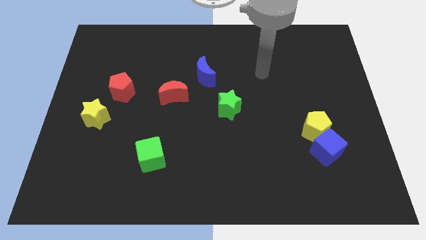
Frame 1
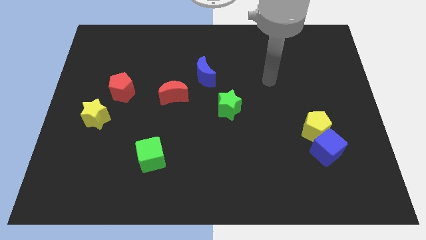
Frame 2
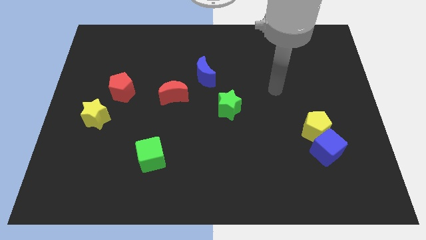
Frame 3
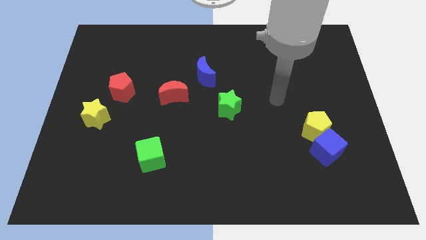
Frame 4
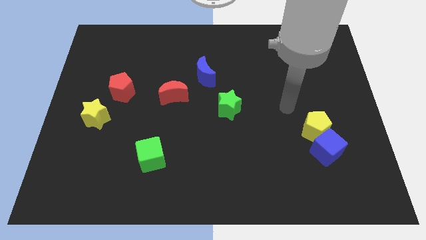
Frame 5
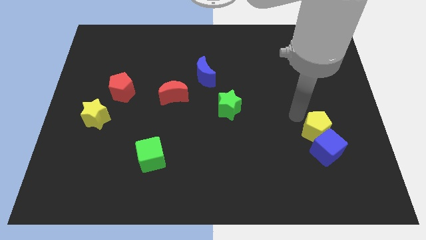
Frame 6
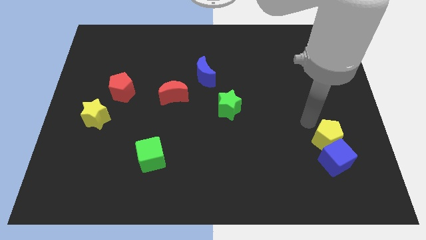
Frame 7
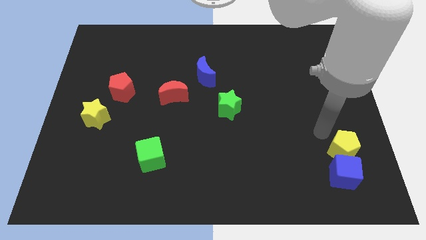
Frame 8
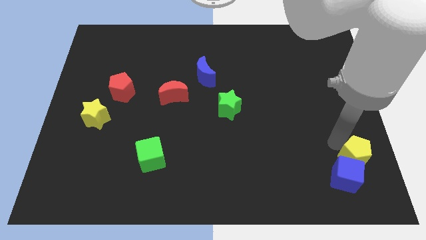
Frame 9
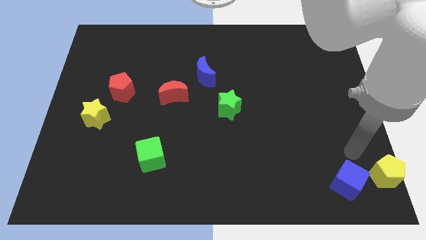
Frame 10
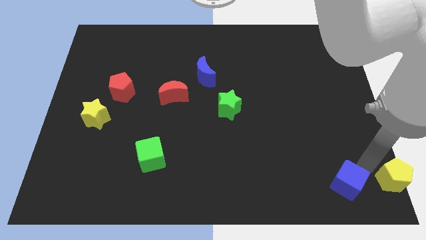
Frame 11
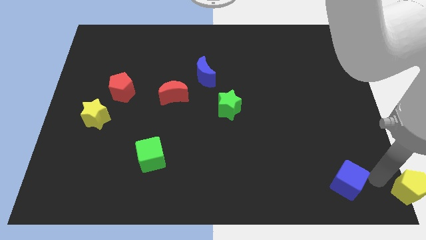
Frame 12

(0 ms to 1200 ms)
separate the blue cube from the yellow pentagon

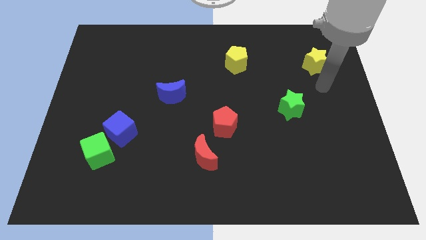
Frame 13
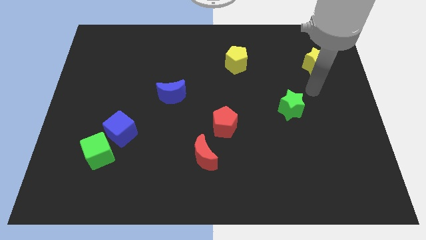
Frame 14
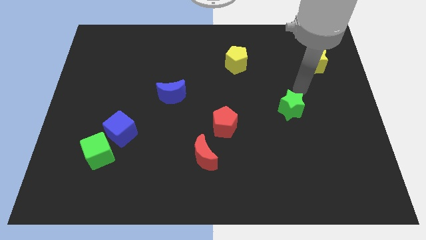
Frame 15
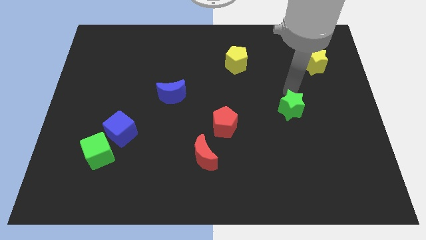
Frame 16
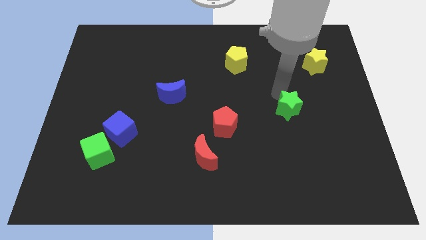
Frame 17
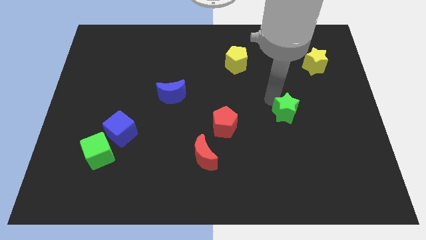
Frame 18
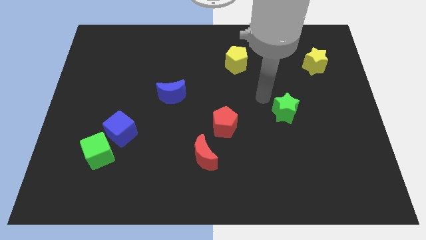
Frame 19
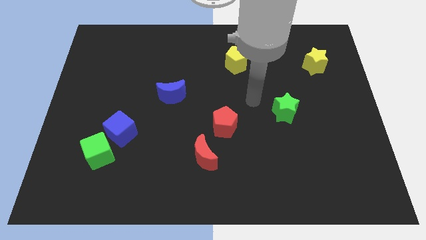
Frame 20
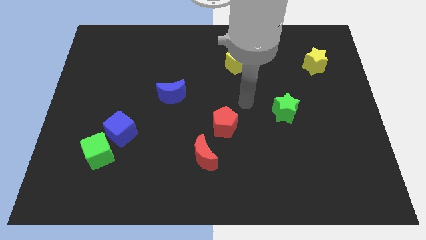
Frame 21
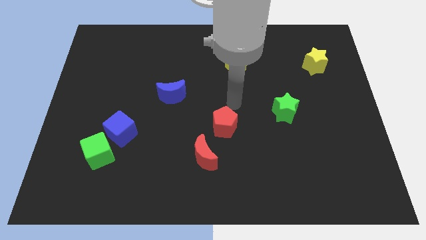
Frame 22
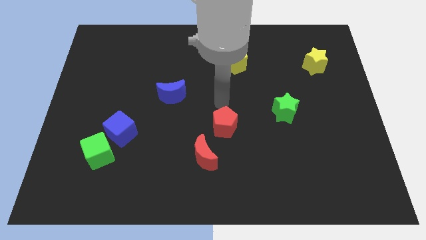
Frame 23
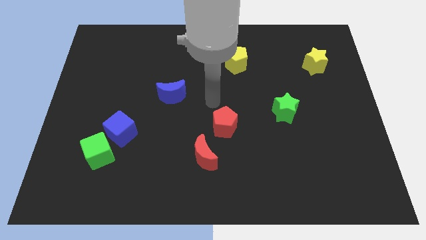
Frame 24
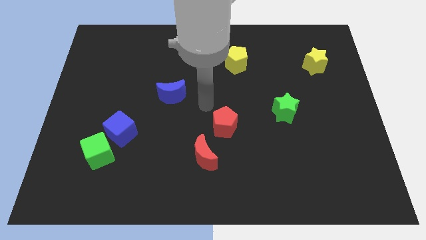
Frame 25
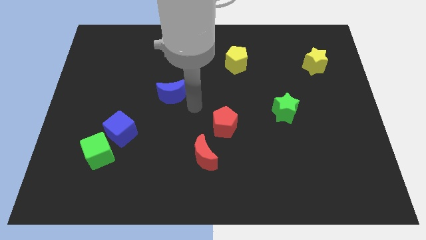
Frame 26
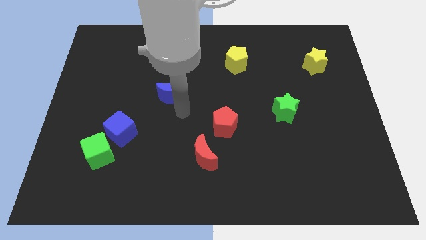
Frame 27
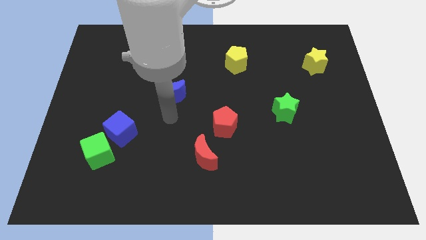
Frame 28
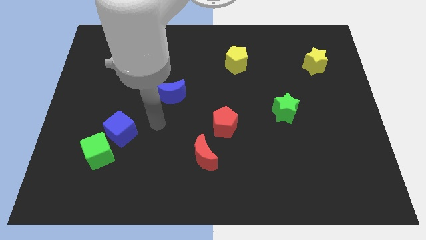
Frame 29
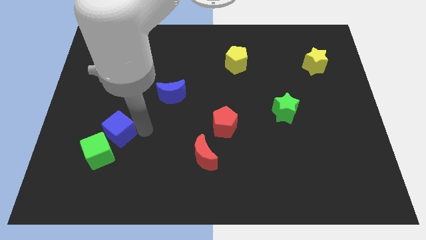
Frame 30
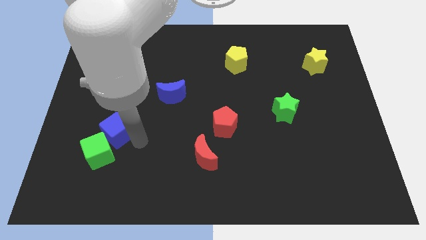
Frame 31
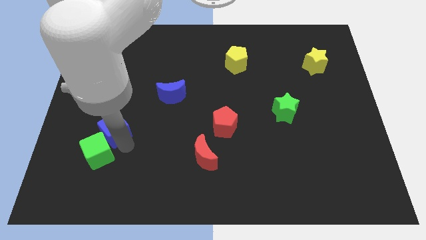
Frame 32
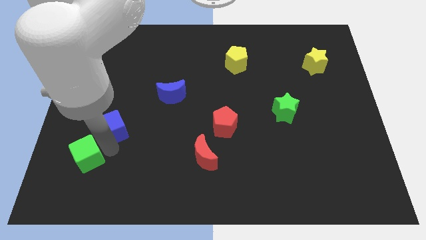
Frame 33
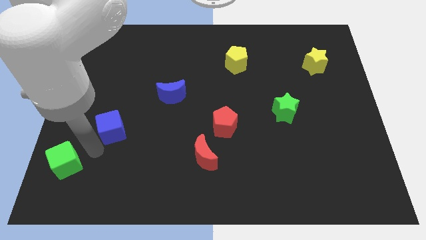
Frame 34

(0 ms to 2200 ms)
separate the blue cube from the green cube

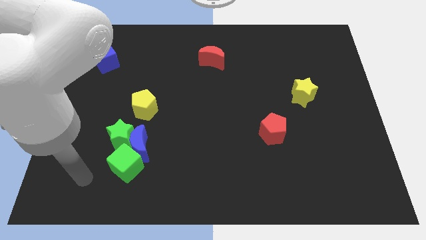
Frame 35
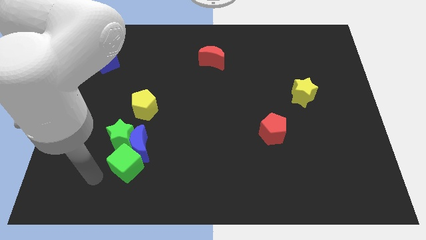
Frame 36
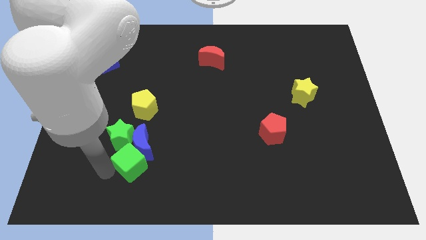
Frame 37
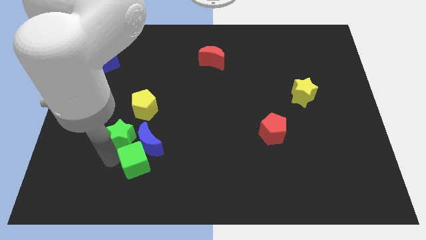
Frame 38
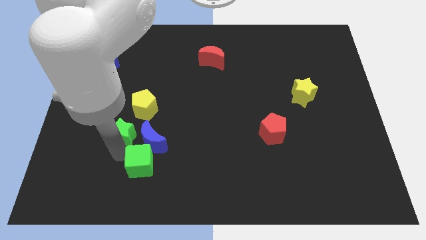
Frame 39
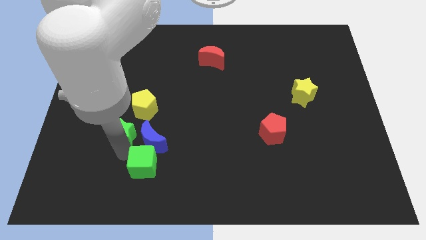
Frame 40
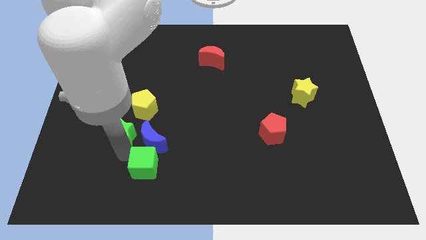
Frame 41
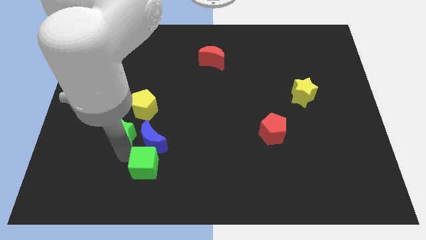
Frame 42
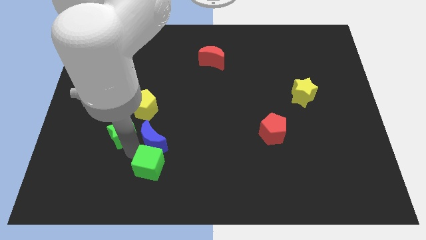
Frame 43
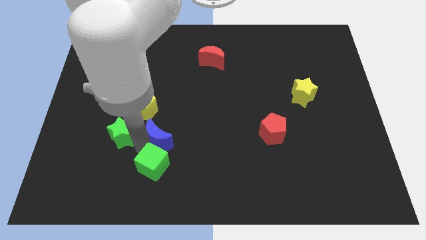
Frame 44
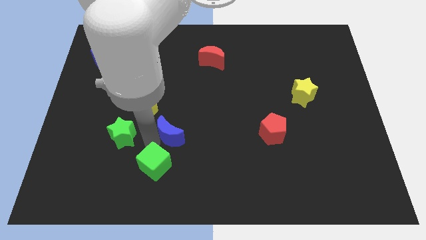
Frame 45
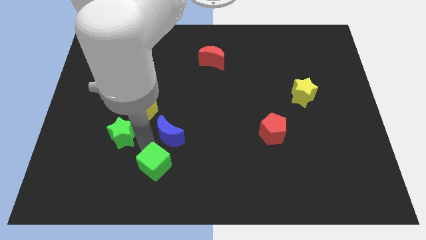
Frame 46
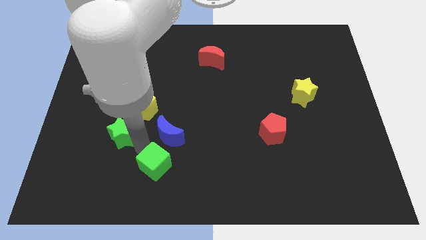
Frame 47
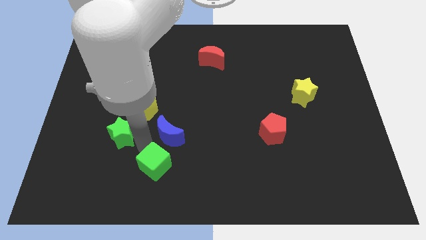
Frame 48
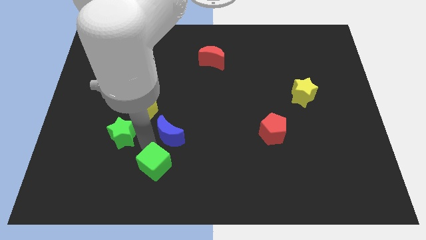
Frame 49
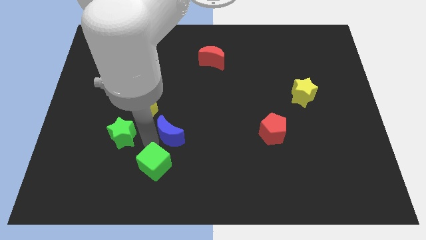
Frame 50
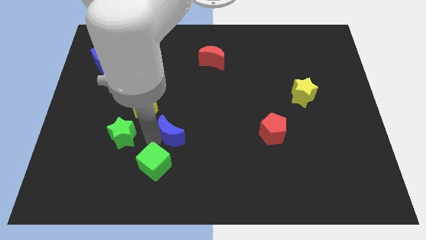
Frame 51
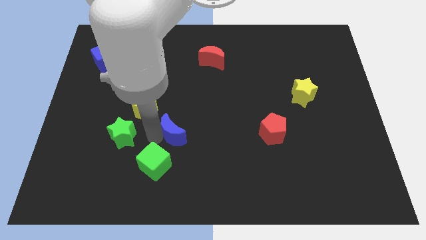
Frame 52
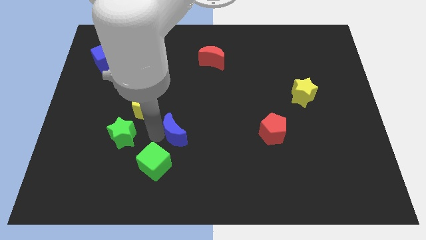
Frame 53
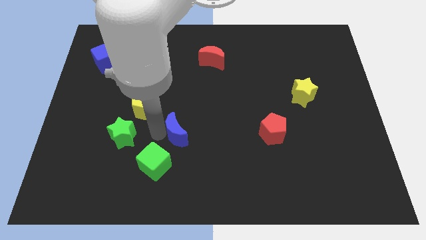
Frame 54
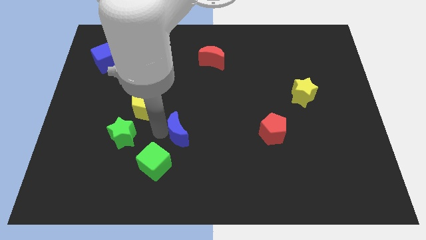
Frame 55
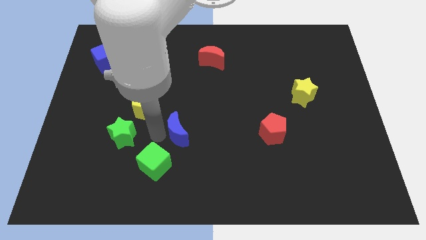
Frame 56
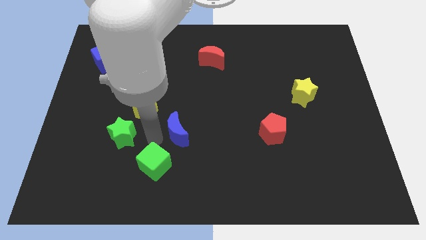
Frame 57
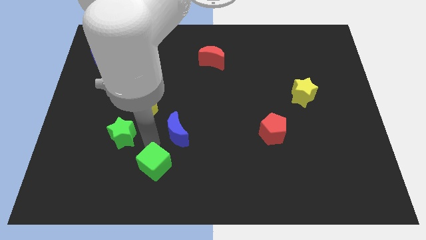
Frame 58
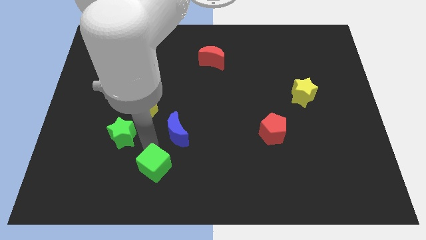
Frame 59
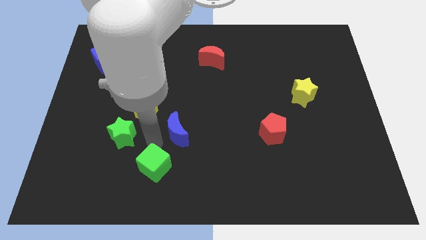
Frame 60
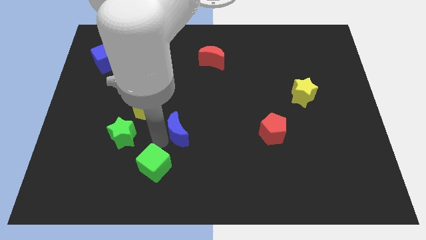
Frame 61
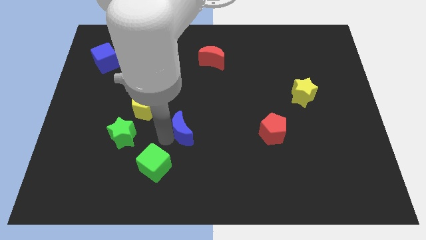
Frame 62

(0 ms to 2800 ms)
pull the blue moon apart from the green star and green cube

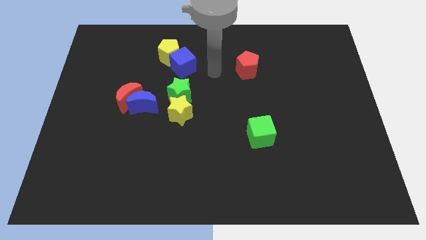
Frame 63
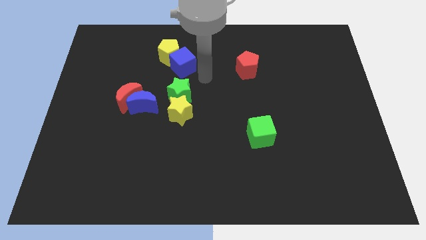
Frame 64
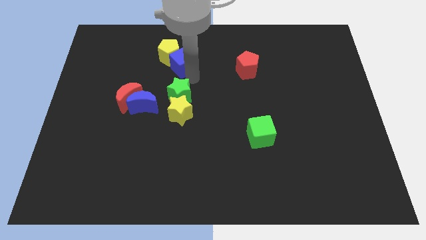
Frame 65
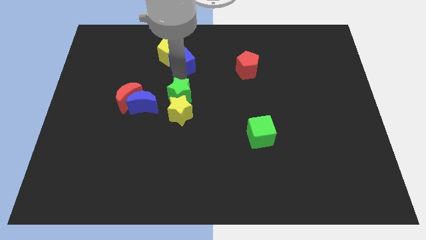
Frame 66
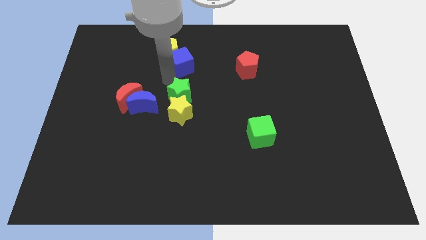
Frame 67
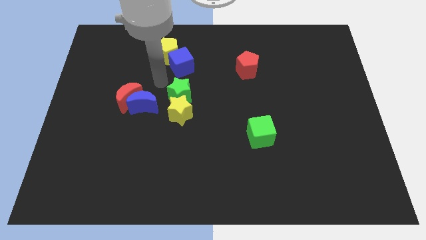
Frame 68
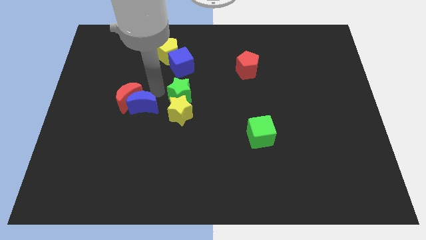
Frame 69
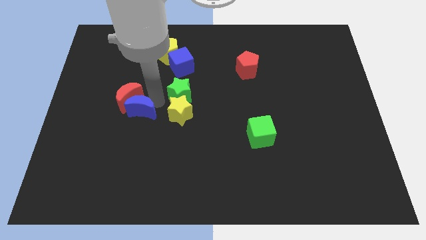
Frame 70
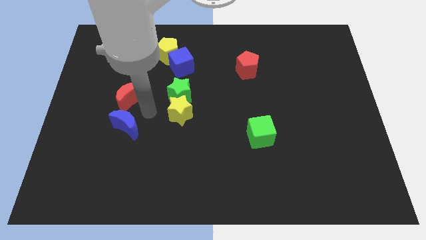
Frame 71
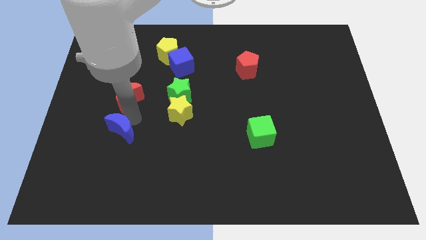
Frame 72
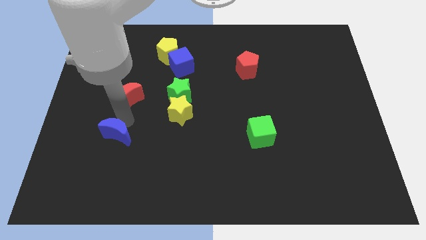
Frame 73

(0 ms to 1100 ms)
separate the red moon from the blue moon

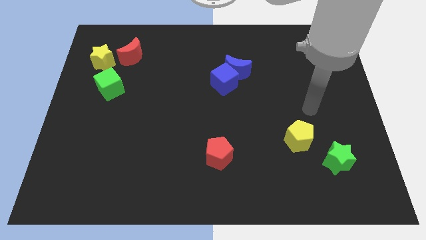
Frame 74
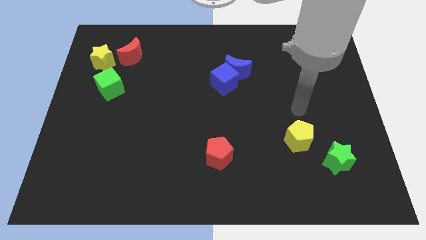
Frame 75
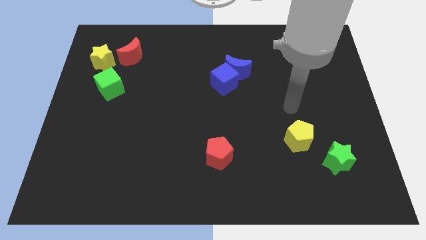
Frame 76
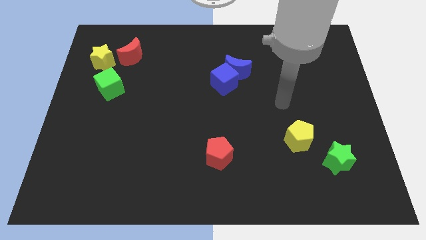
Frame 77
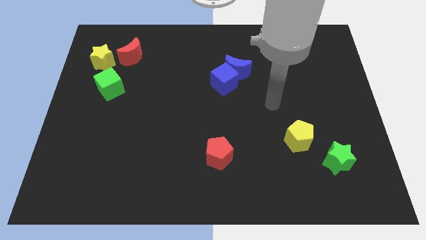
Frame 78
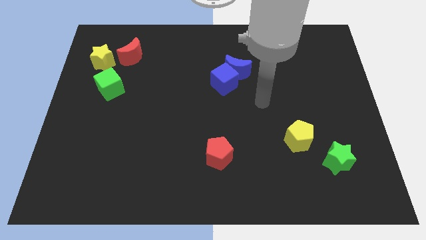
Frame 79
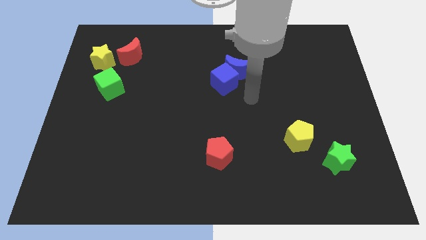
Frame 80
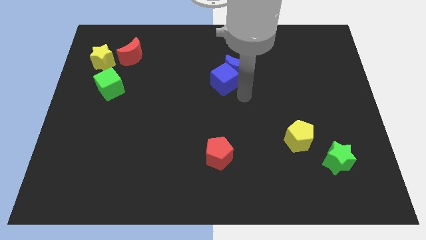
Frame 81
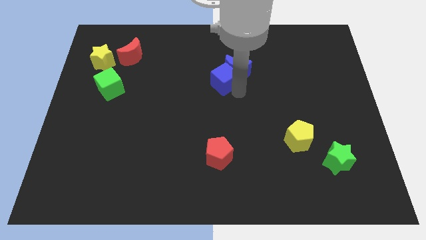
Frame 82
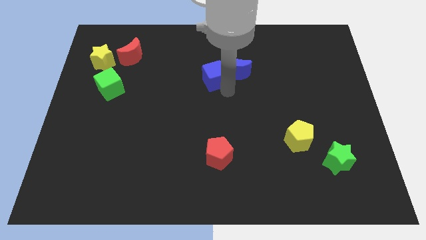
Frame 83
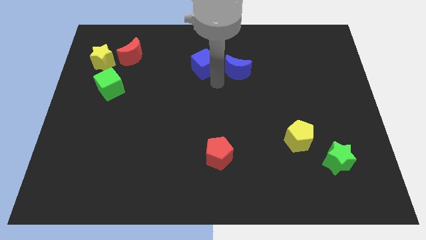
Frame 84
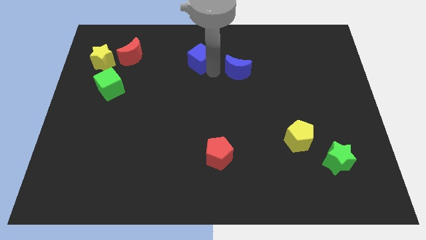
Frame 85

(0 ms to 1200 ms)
move the blue moon away from the blue cube

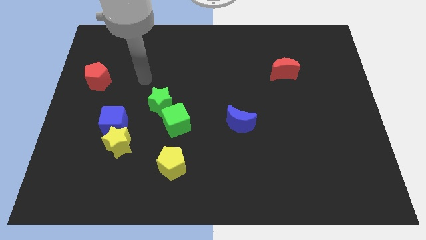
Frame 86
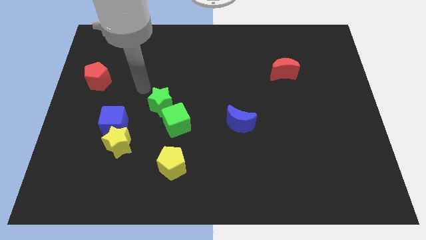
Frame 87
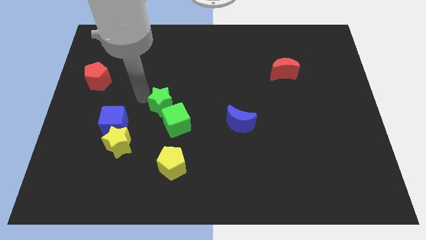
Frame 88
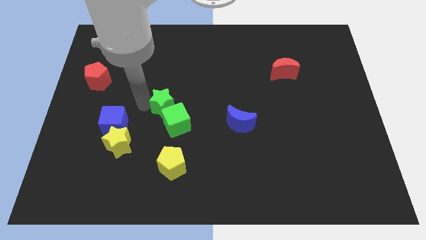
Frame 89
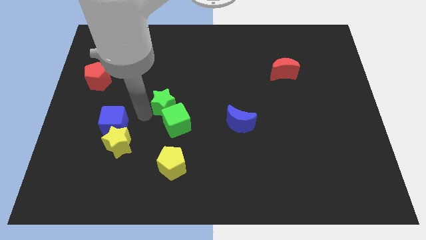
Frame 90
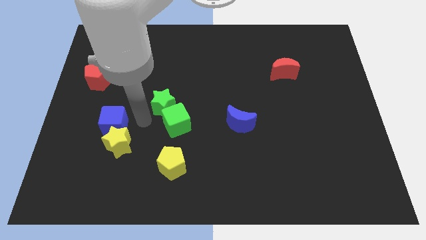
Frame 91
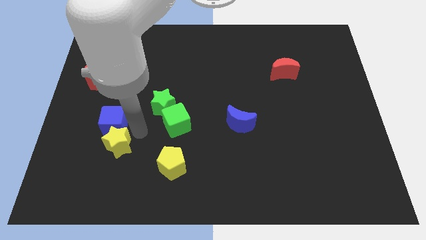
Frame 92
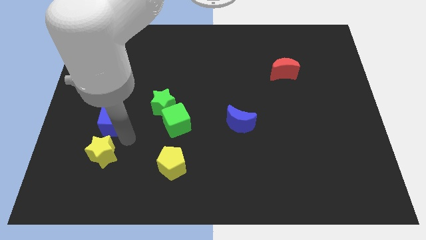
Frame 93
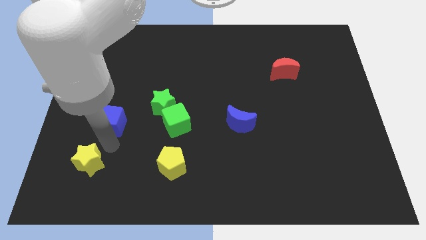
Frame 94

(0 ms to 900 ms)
pull the blue cube apart from the yellow star

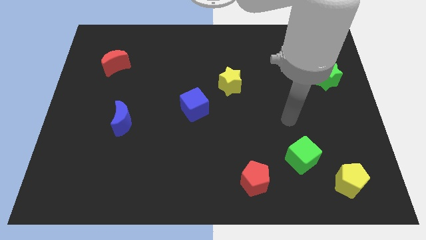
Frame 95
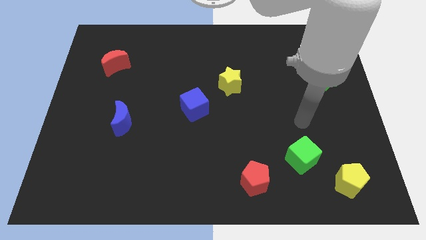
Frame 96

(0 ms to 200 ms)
pull the green cube apart from the yellow pentagon
